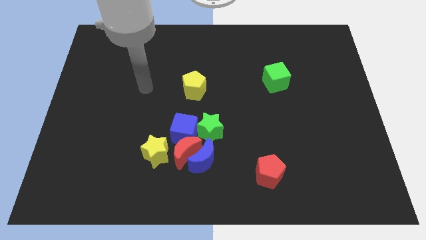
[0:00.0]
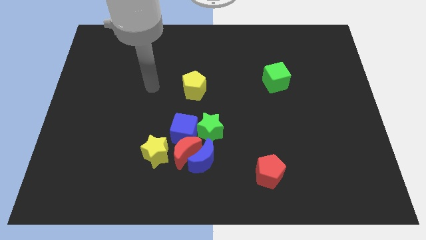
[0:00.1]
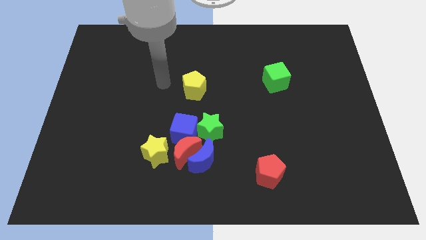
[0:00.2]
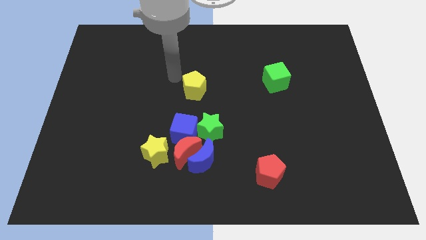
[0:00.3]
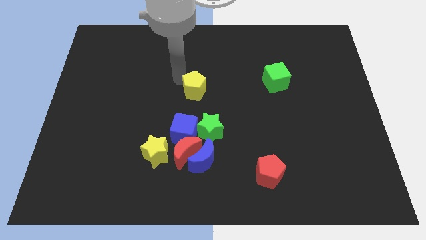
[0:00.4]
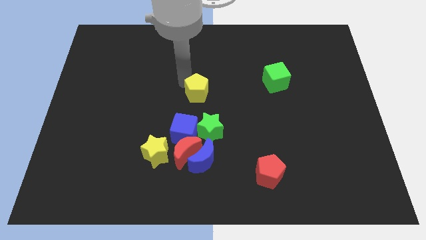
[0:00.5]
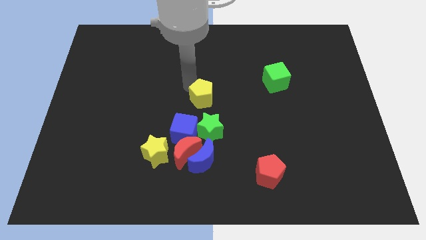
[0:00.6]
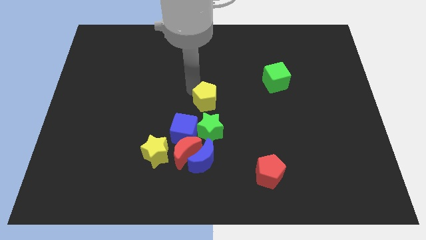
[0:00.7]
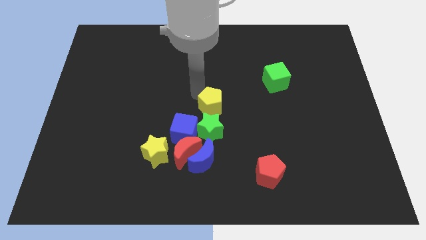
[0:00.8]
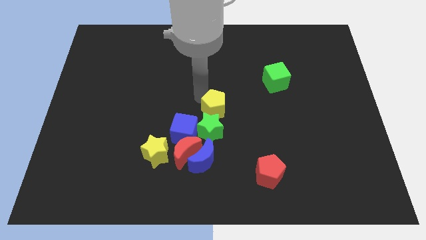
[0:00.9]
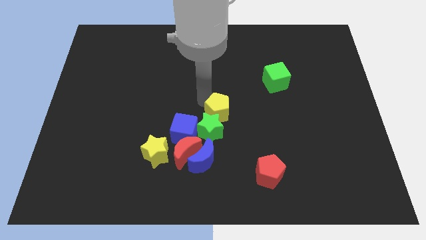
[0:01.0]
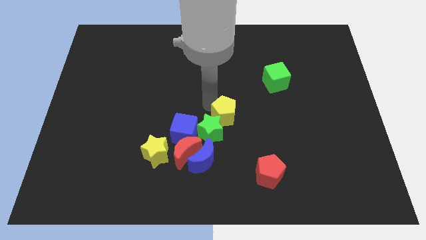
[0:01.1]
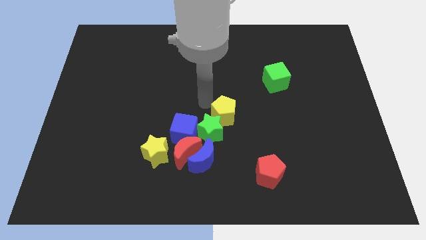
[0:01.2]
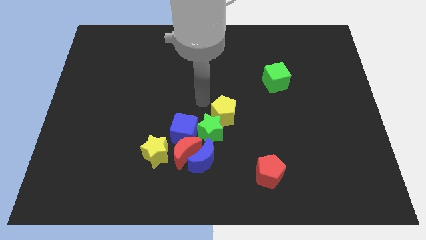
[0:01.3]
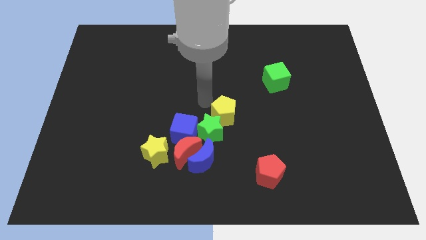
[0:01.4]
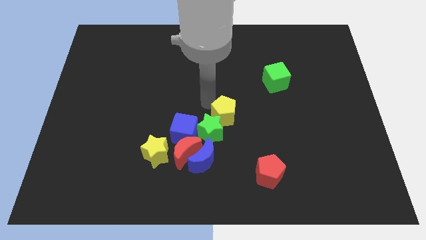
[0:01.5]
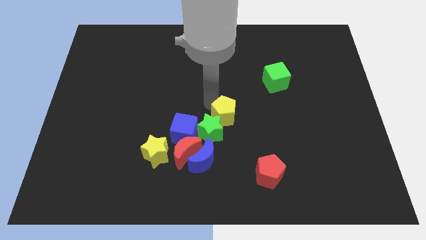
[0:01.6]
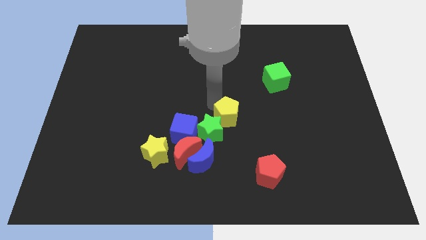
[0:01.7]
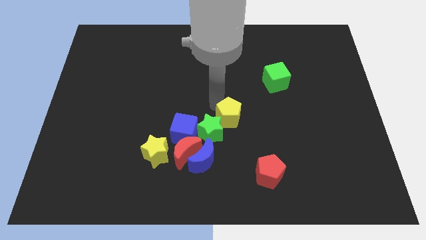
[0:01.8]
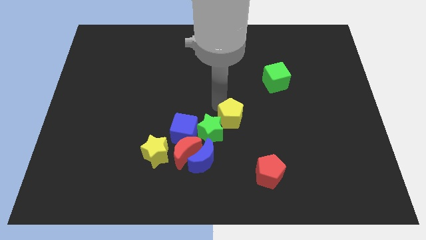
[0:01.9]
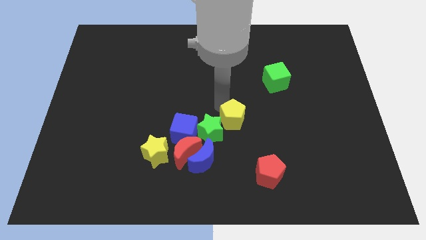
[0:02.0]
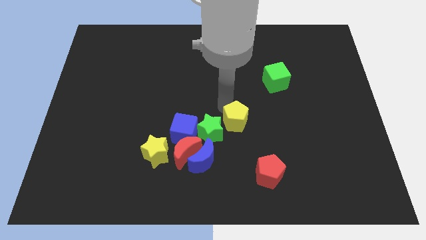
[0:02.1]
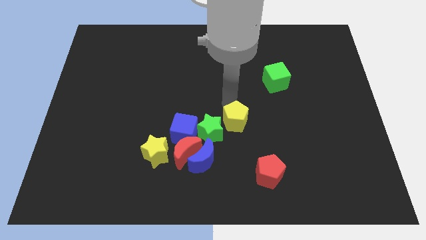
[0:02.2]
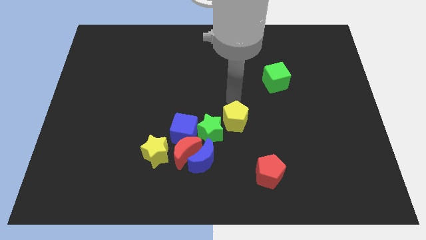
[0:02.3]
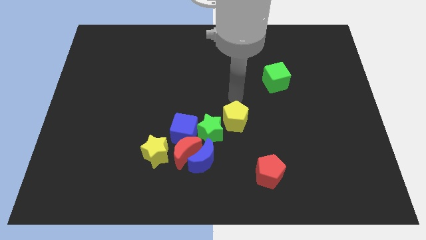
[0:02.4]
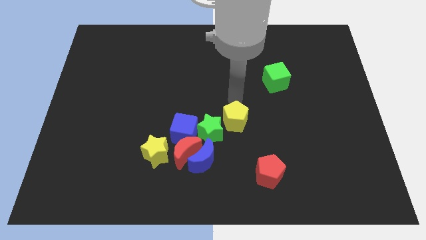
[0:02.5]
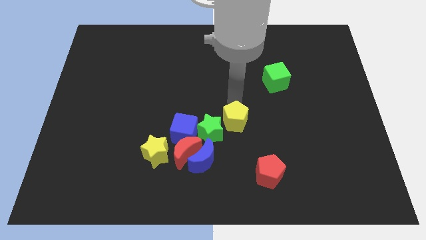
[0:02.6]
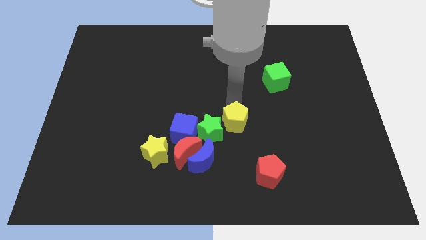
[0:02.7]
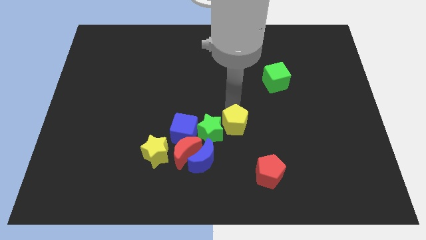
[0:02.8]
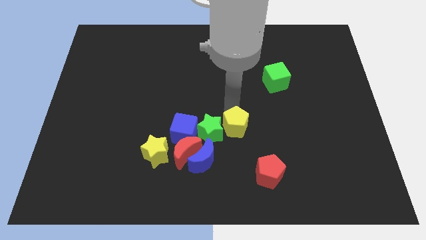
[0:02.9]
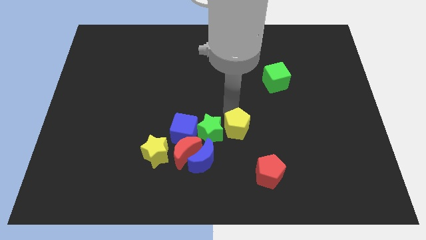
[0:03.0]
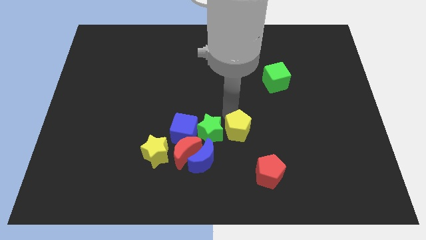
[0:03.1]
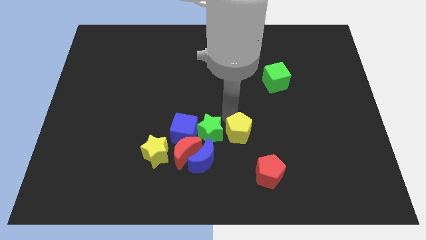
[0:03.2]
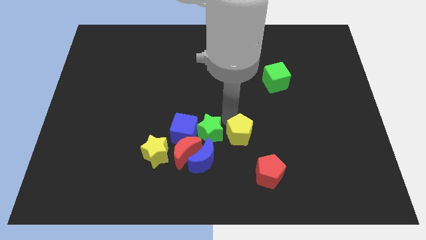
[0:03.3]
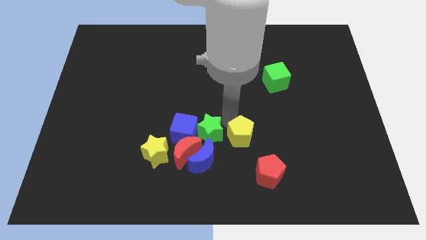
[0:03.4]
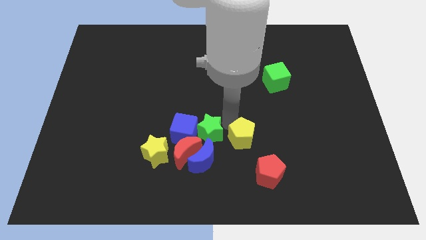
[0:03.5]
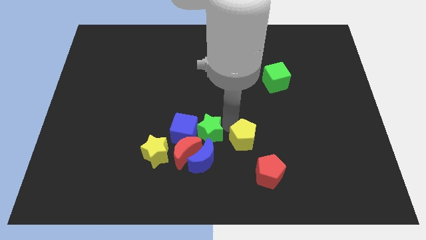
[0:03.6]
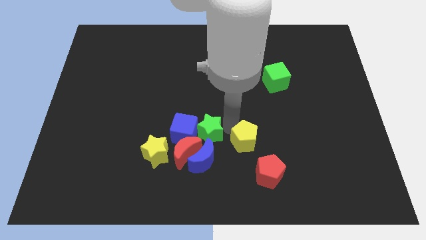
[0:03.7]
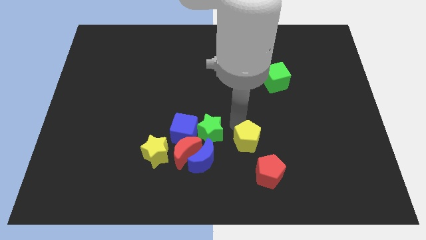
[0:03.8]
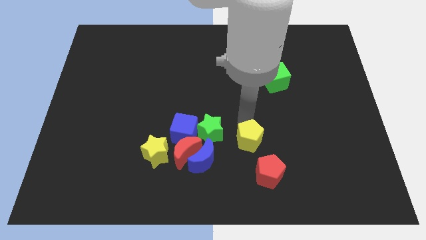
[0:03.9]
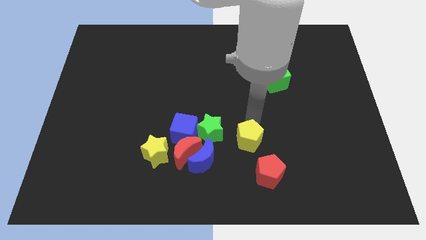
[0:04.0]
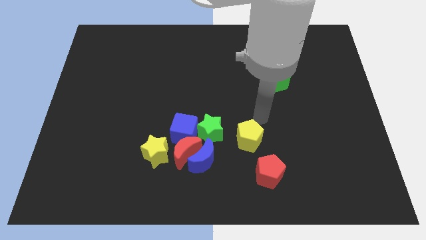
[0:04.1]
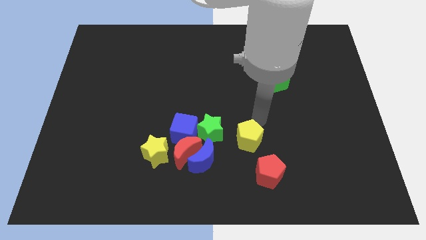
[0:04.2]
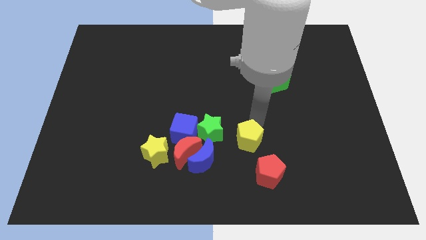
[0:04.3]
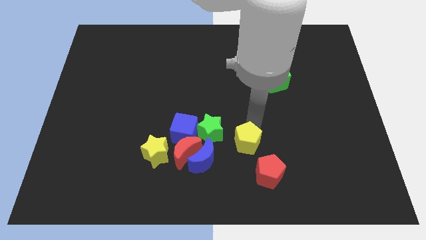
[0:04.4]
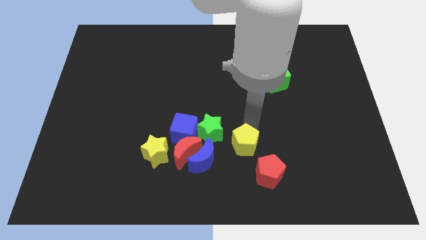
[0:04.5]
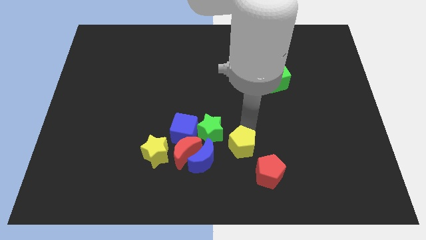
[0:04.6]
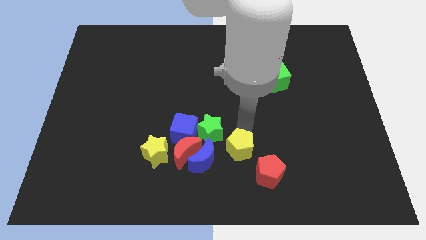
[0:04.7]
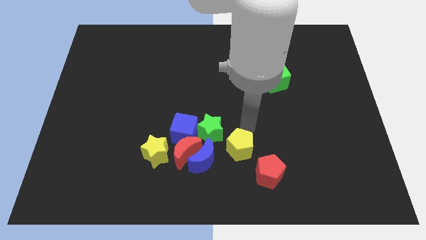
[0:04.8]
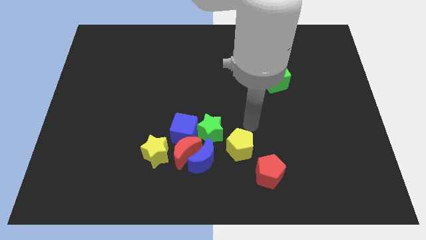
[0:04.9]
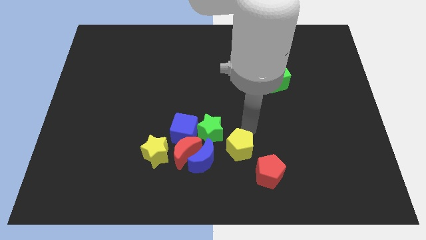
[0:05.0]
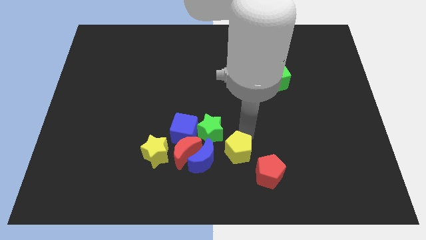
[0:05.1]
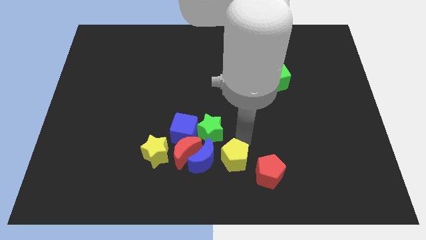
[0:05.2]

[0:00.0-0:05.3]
slide the yellow pentagon to the bottom

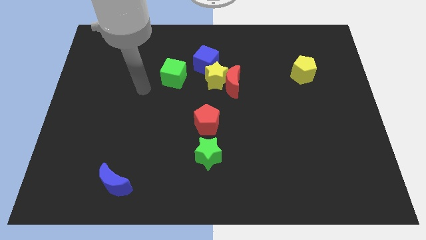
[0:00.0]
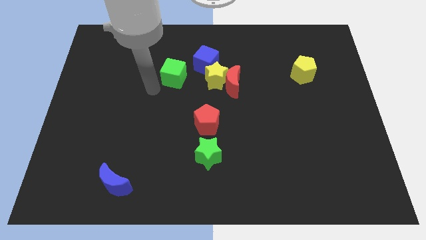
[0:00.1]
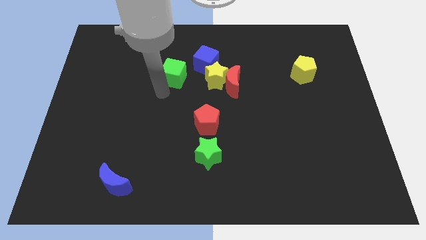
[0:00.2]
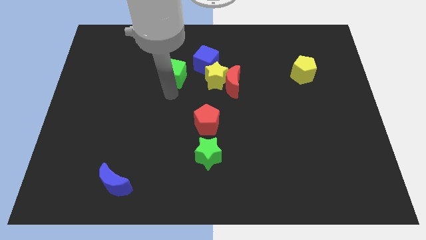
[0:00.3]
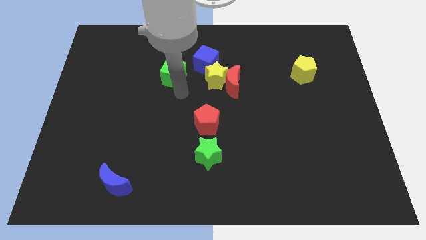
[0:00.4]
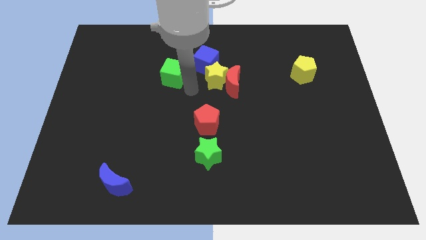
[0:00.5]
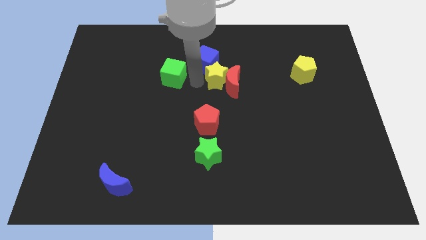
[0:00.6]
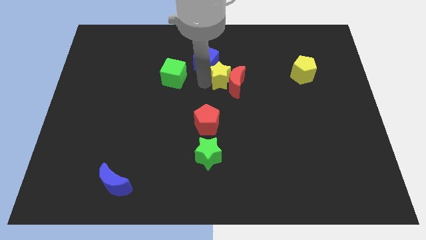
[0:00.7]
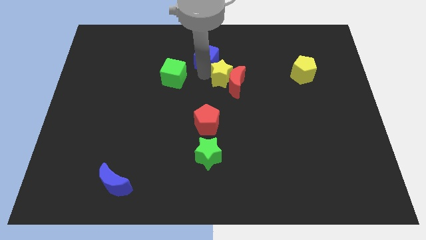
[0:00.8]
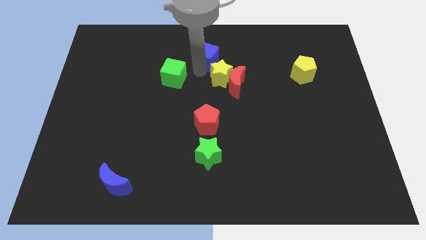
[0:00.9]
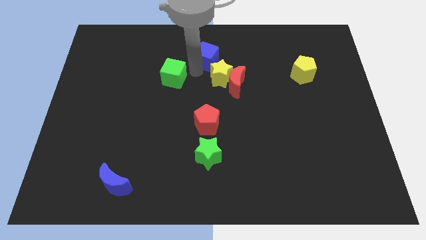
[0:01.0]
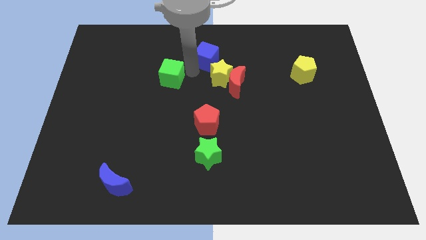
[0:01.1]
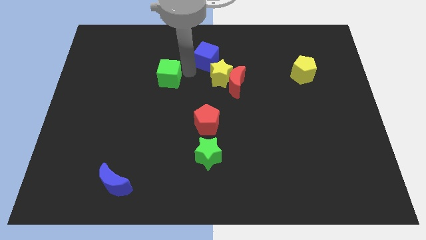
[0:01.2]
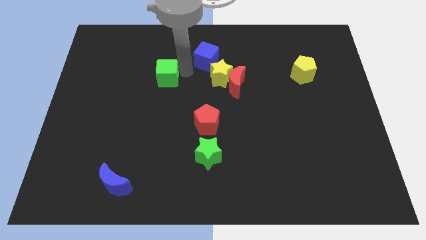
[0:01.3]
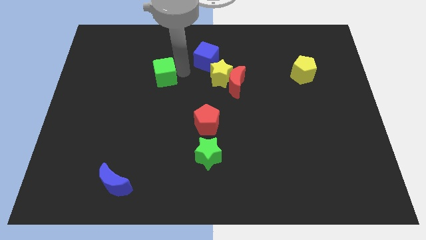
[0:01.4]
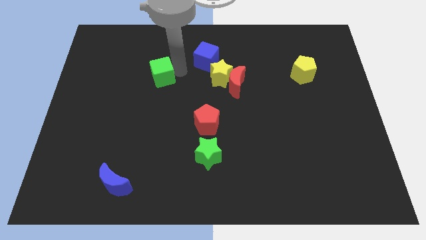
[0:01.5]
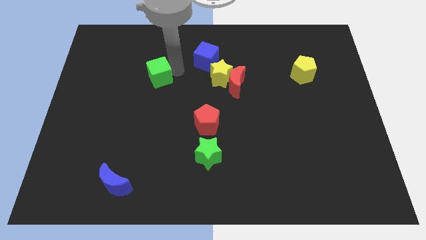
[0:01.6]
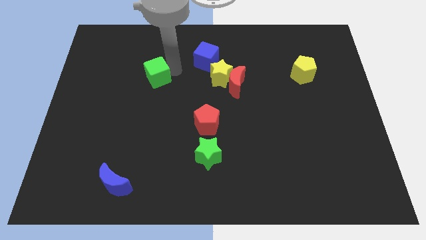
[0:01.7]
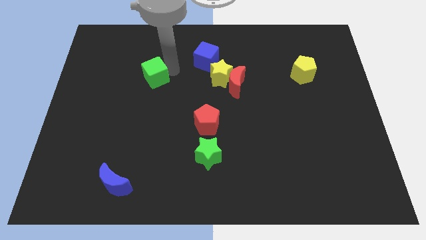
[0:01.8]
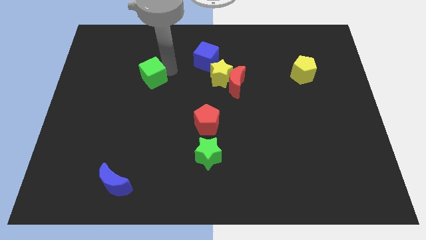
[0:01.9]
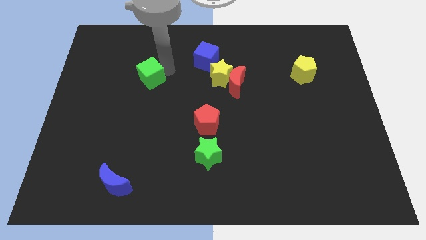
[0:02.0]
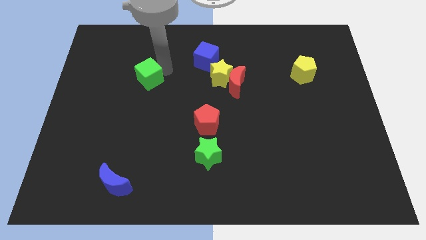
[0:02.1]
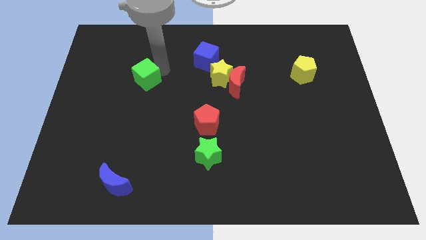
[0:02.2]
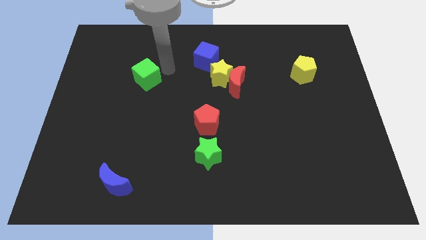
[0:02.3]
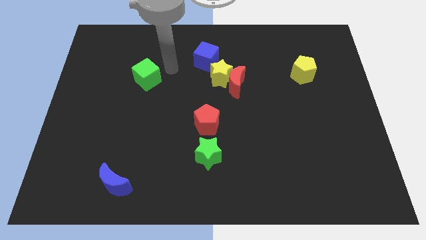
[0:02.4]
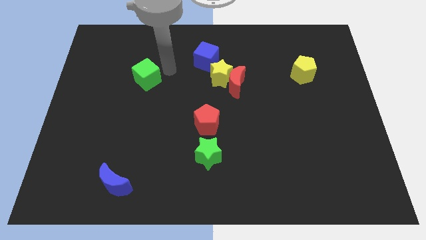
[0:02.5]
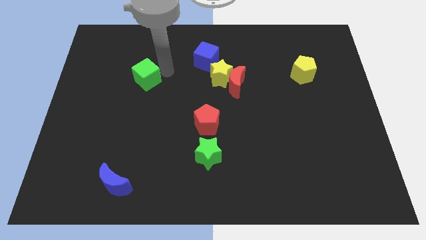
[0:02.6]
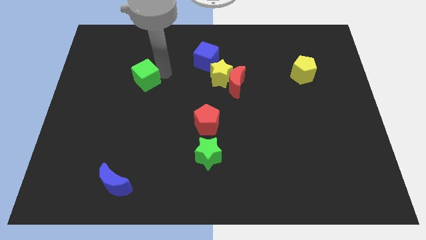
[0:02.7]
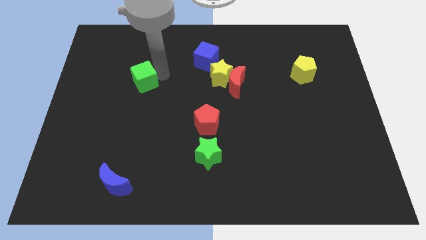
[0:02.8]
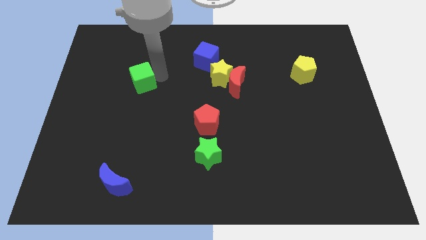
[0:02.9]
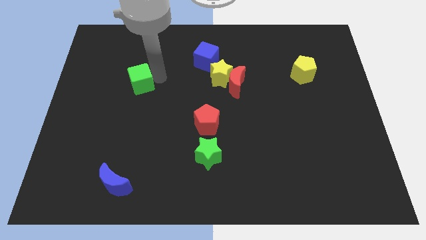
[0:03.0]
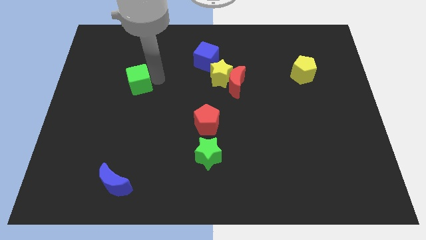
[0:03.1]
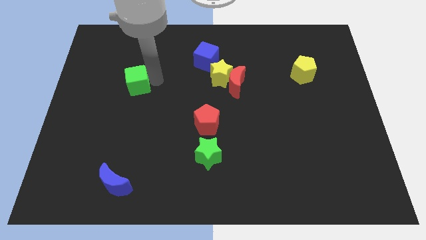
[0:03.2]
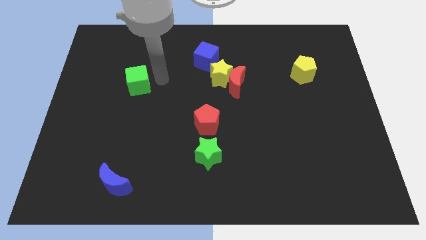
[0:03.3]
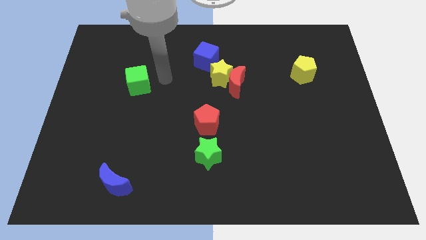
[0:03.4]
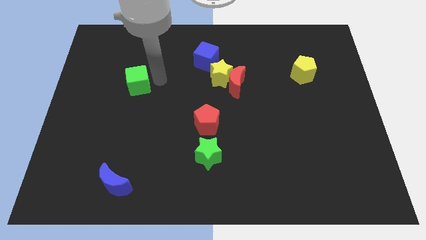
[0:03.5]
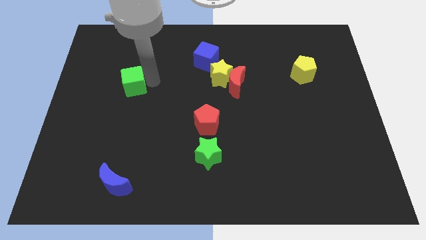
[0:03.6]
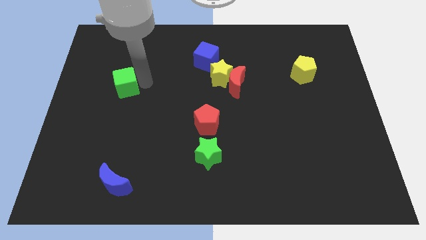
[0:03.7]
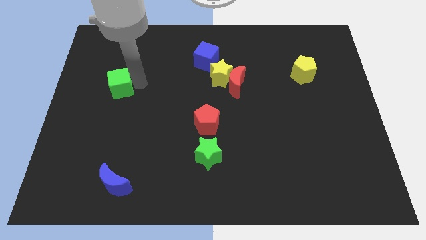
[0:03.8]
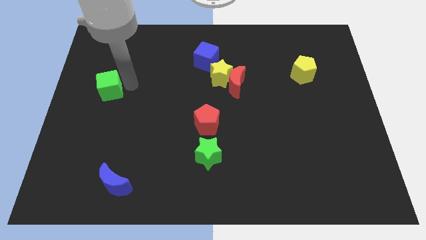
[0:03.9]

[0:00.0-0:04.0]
push the green cube to the left side of the board
